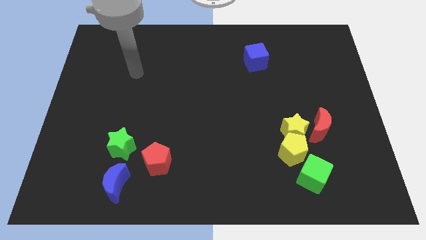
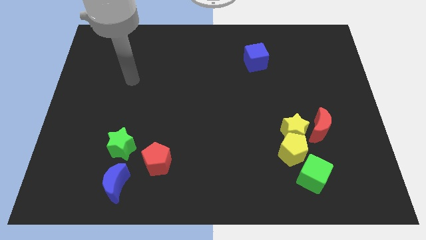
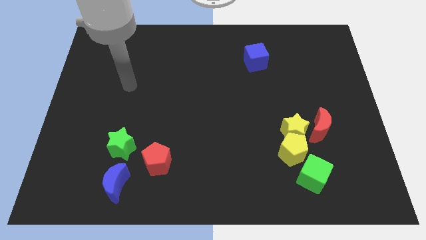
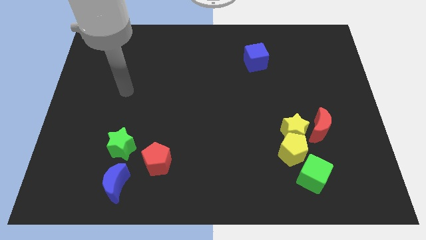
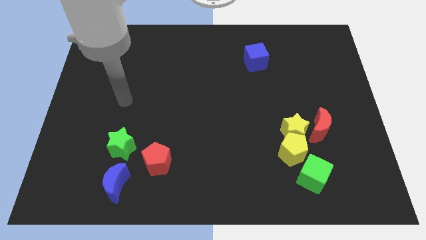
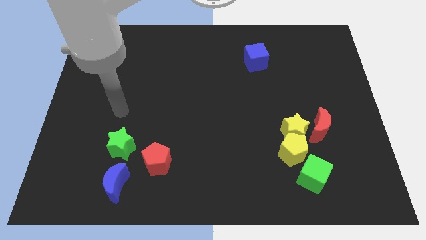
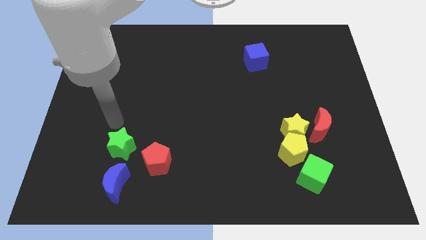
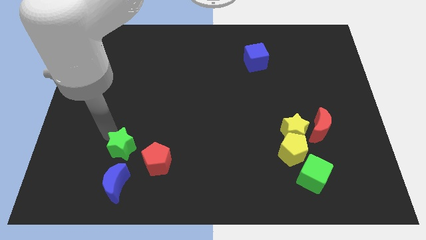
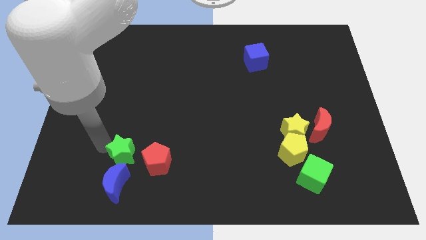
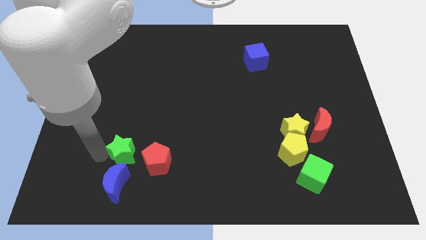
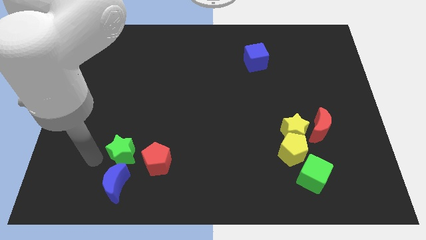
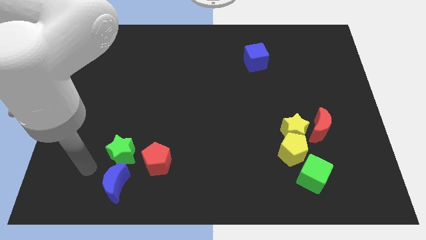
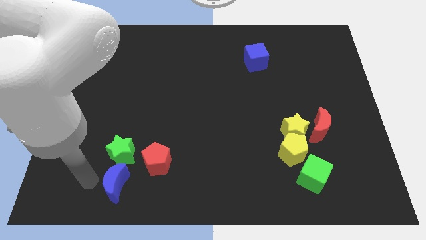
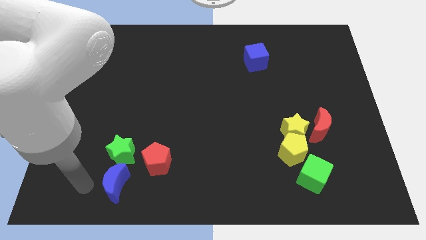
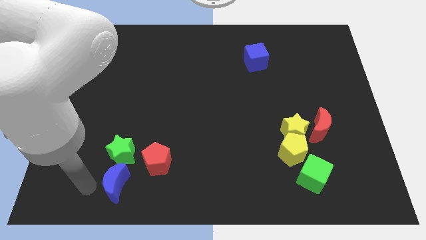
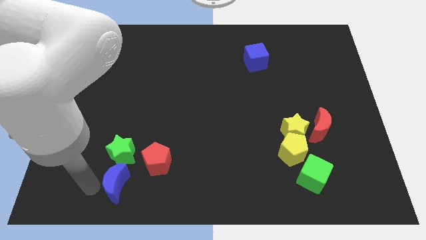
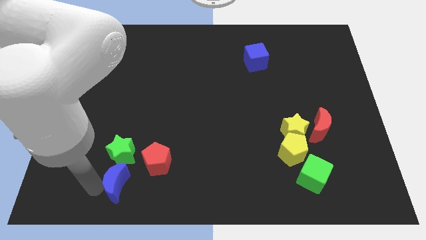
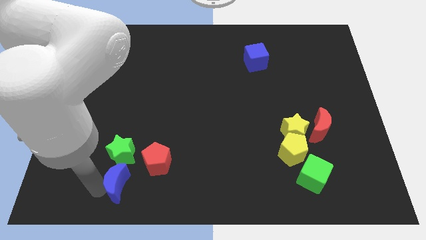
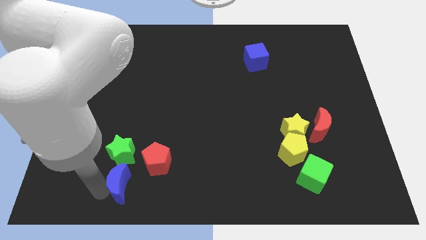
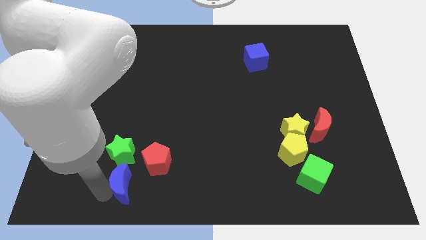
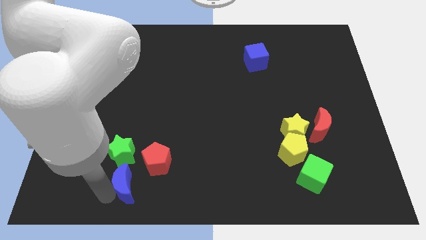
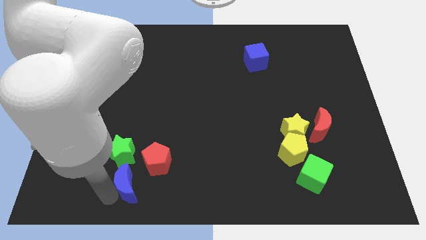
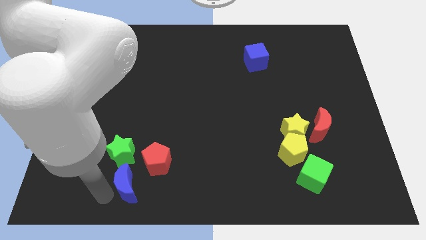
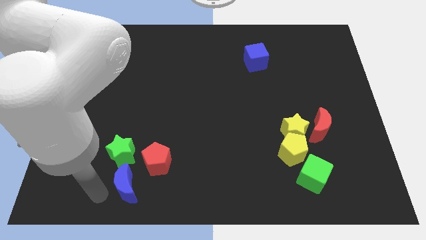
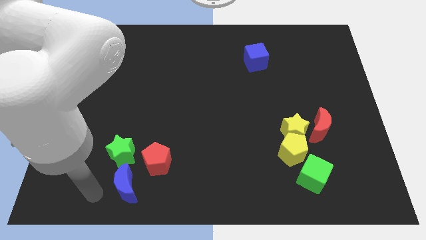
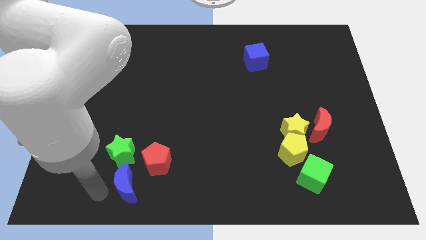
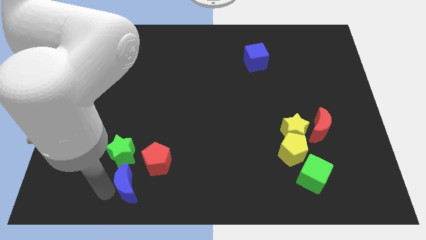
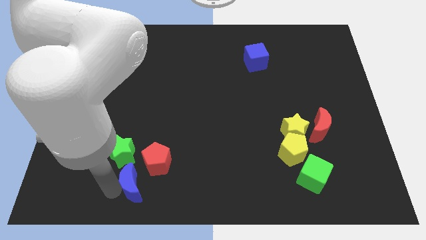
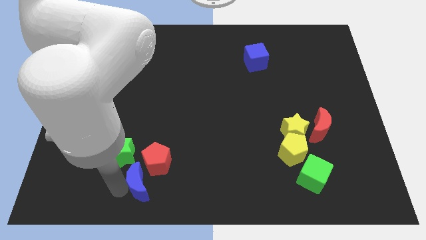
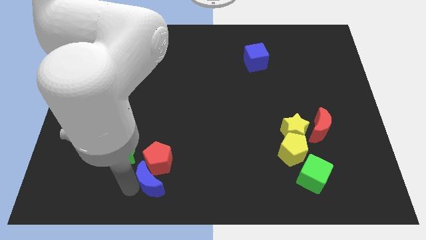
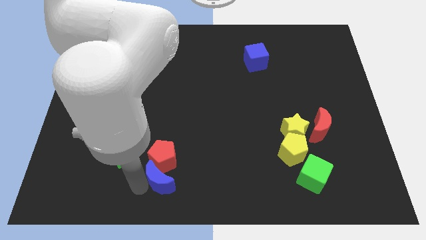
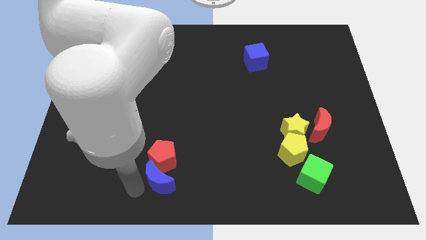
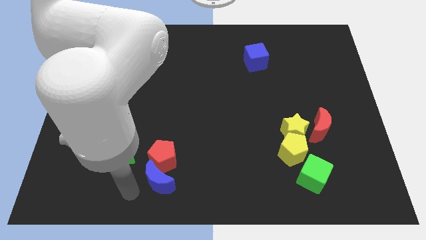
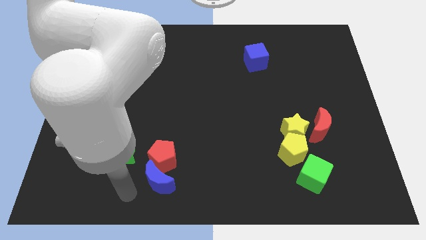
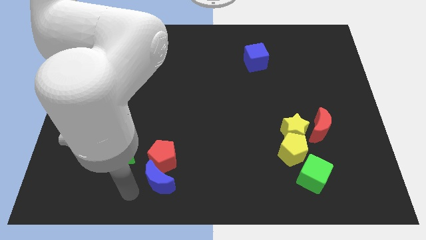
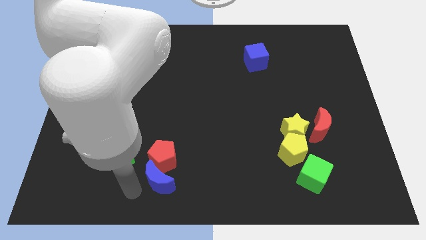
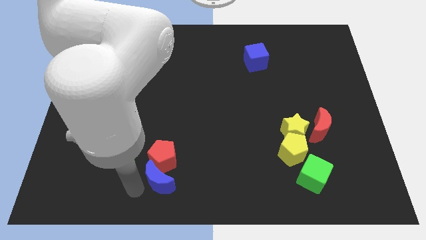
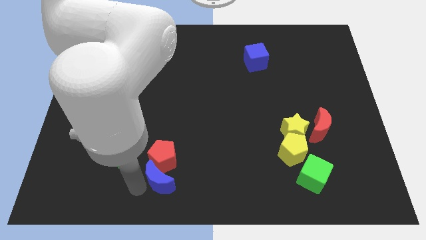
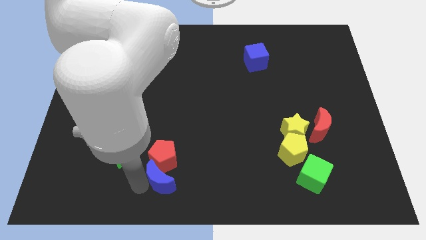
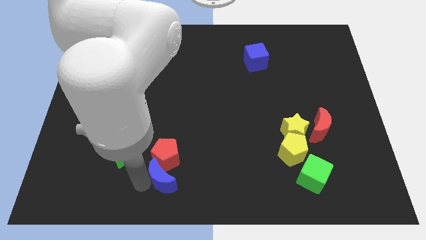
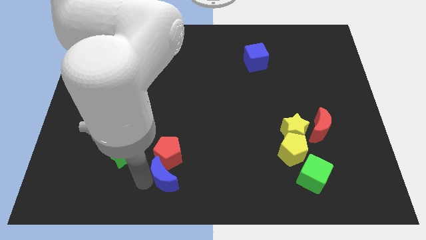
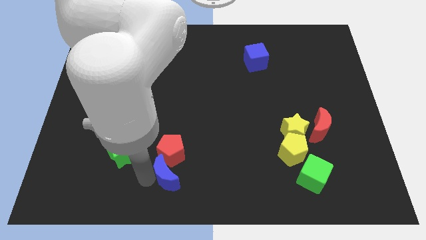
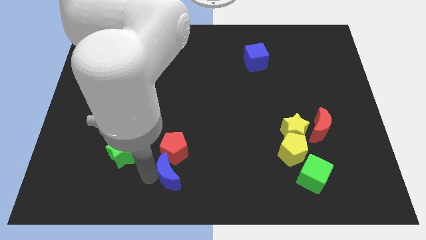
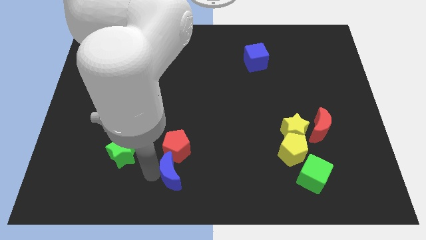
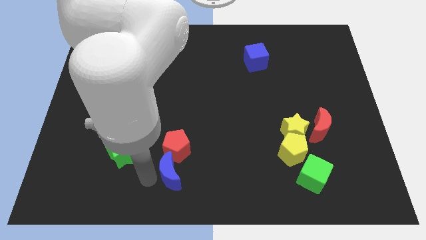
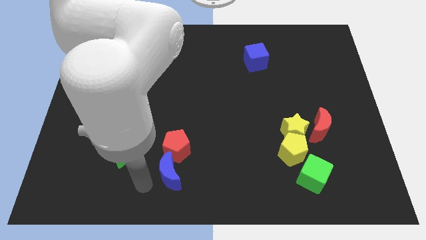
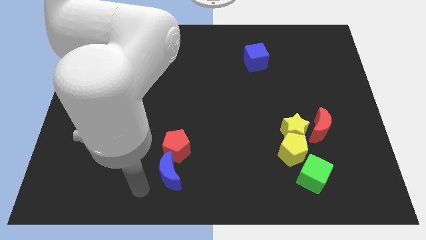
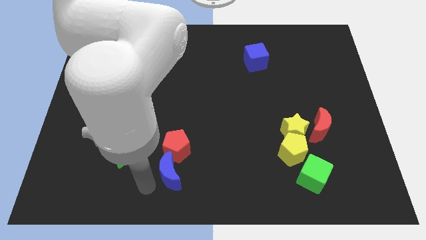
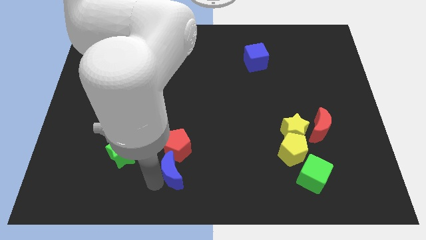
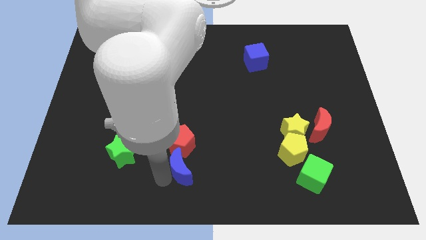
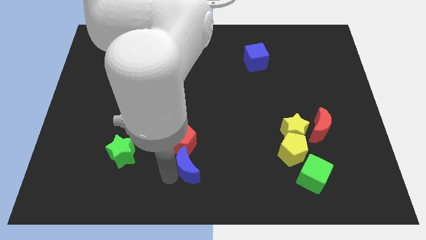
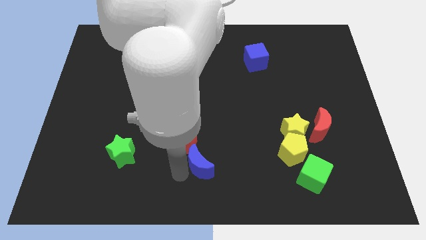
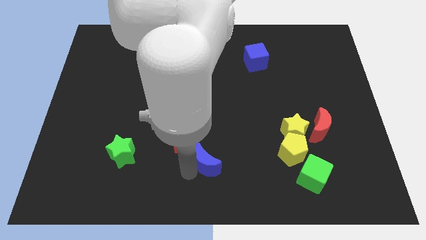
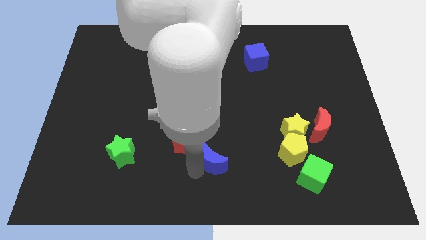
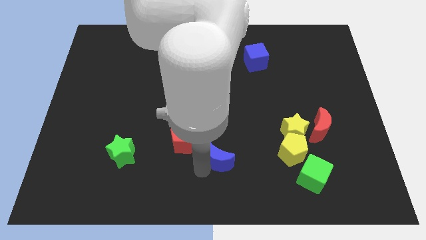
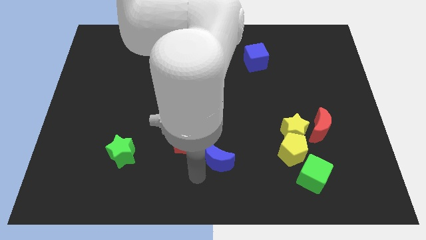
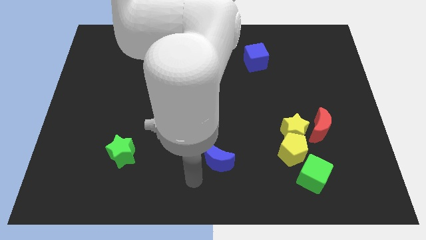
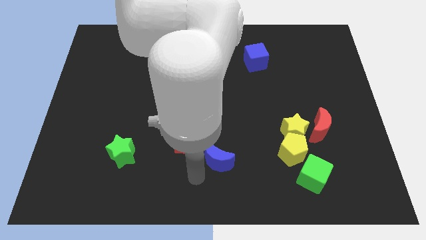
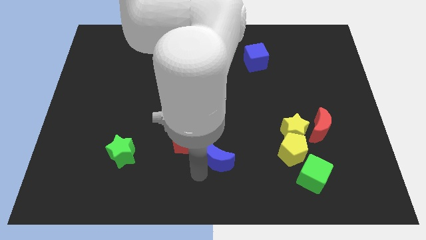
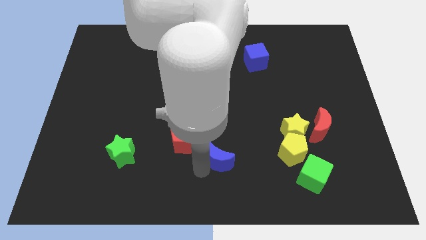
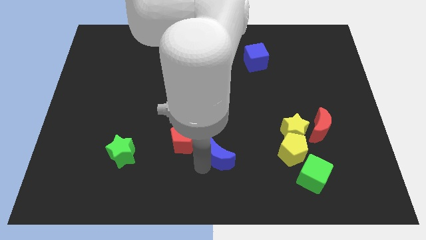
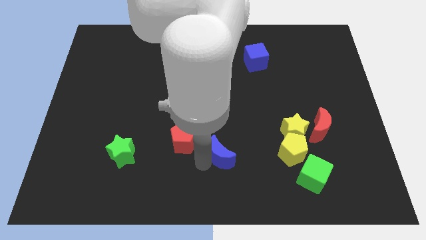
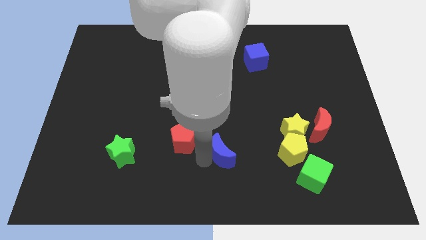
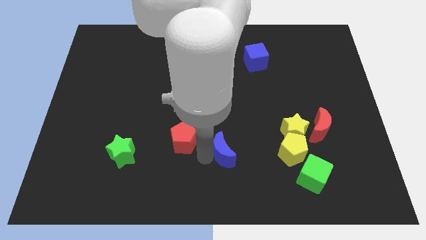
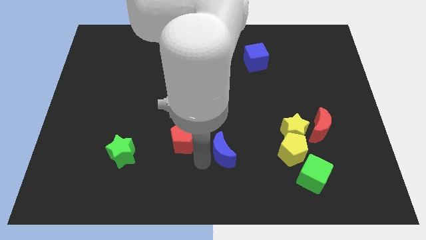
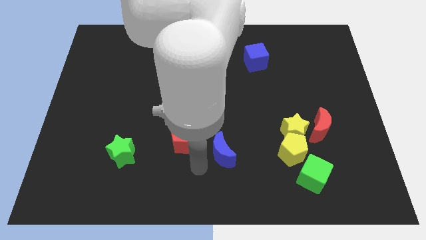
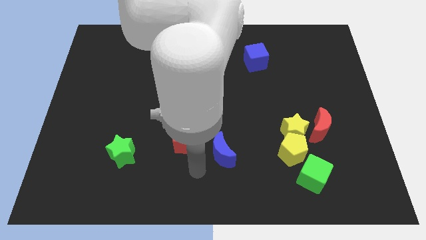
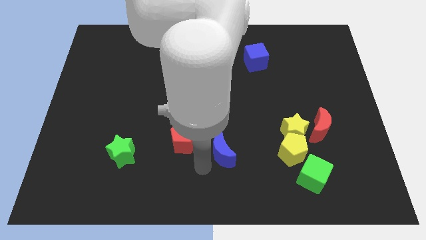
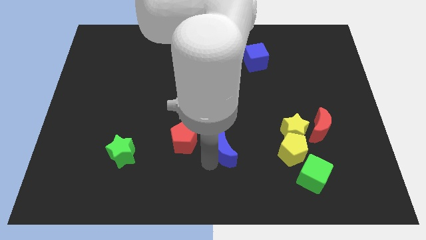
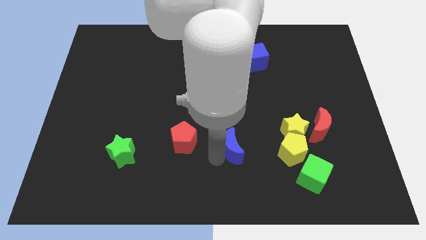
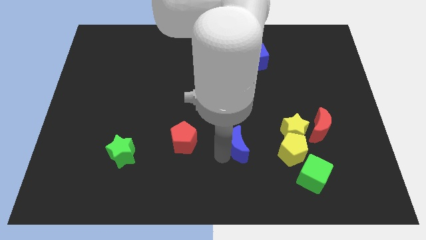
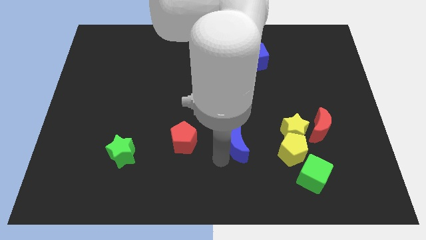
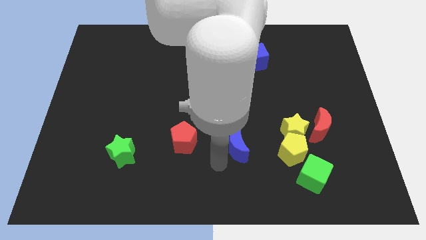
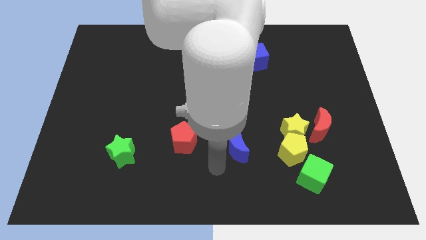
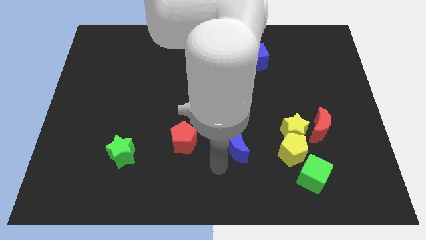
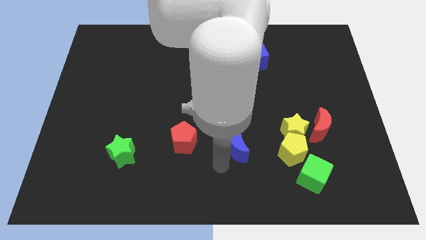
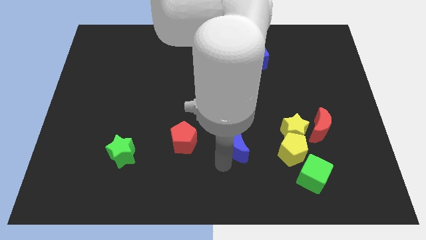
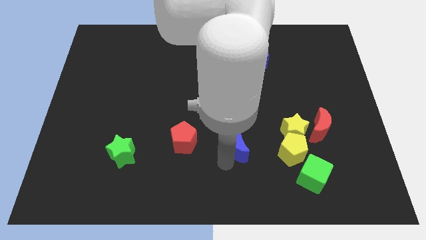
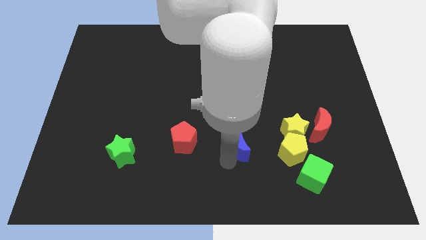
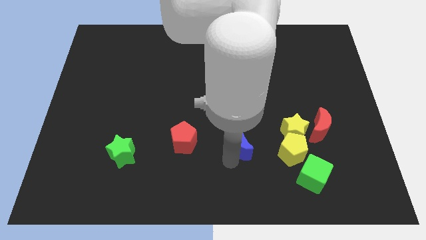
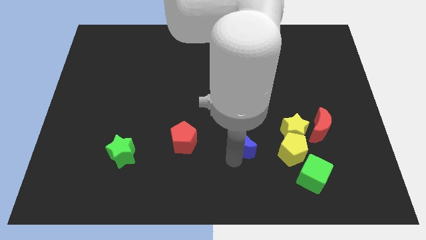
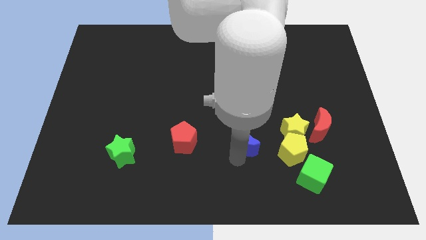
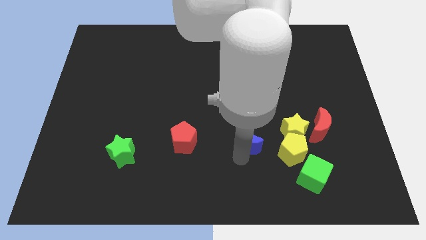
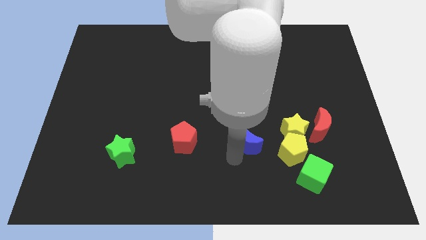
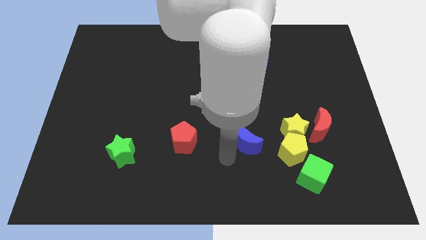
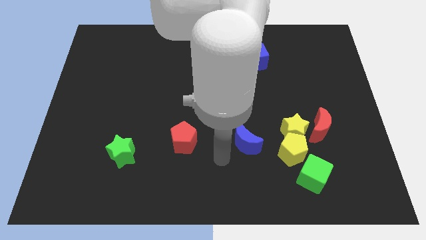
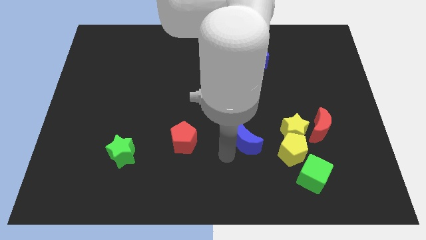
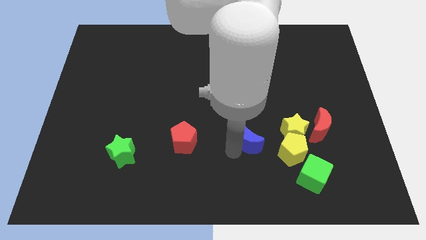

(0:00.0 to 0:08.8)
put the blue moon to the top left side of the yellow pentagon
